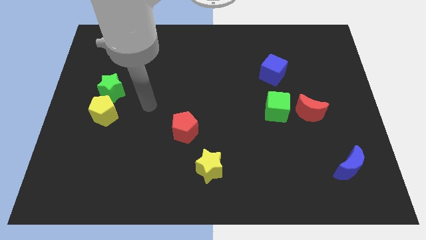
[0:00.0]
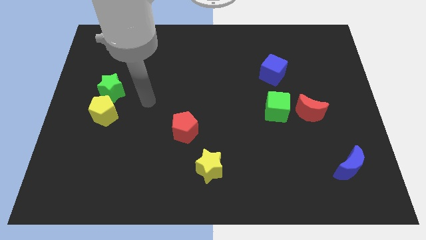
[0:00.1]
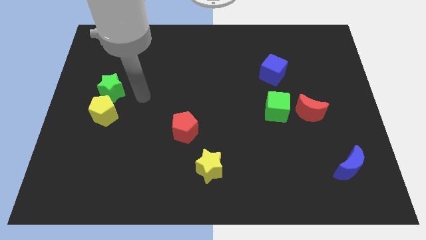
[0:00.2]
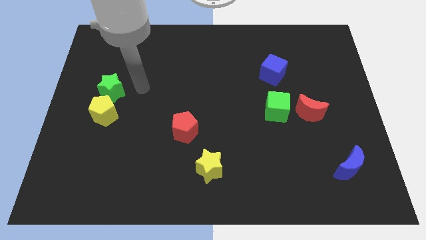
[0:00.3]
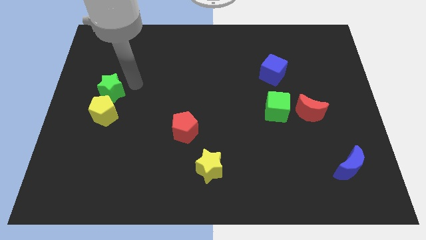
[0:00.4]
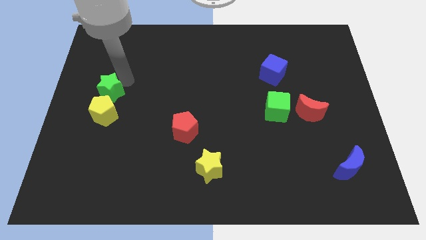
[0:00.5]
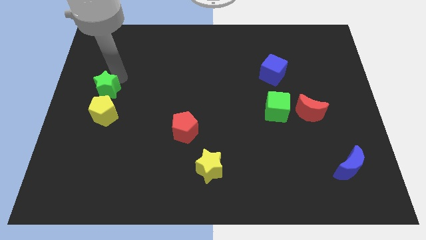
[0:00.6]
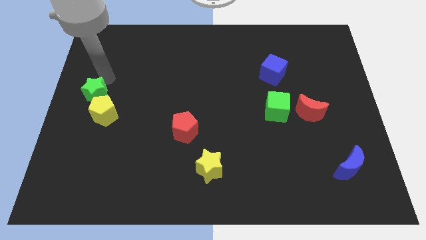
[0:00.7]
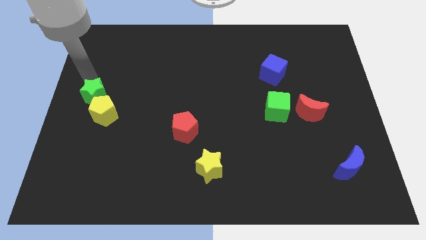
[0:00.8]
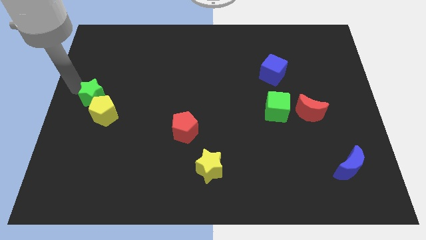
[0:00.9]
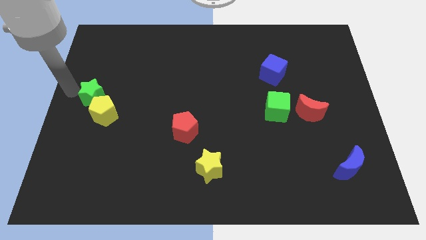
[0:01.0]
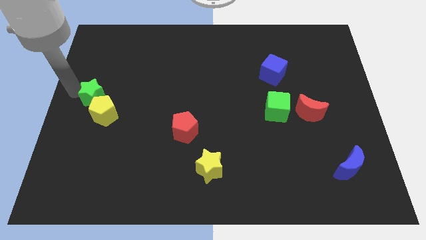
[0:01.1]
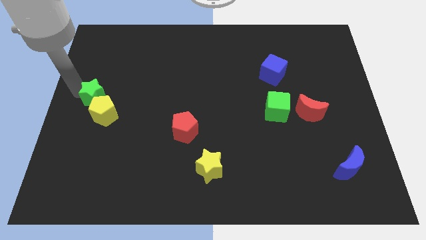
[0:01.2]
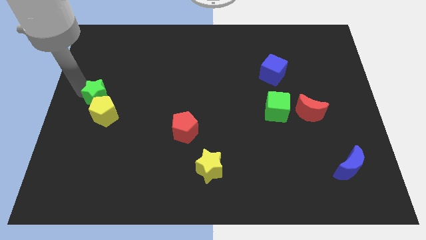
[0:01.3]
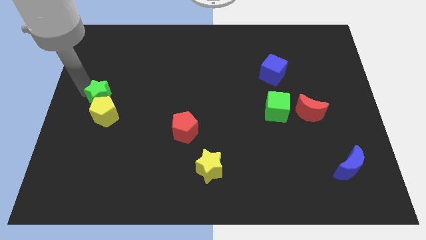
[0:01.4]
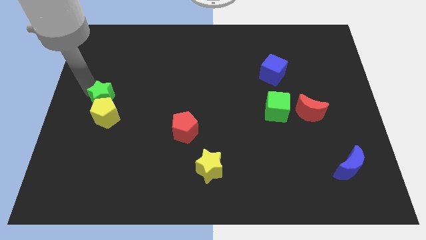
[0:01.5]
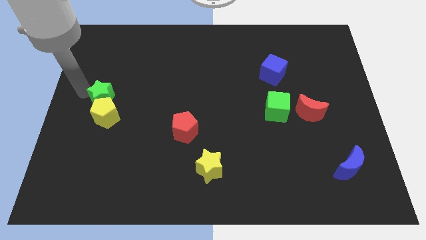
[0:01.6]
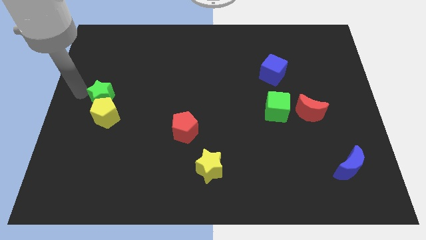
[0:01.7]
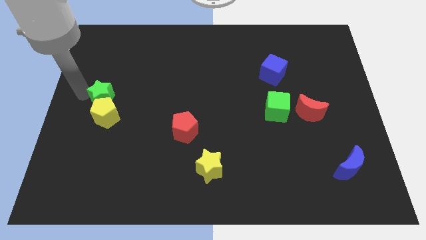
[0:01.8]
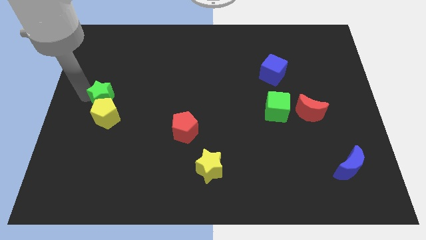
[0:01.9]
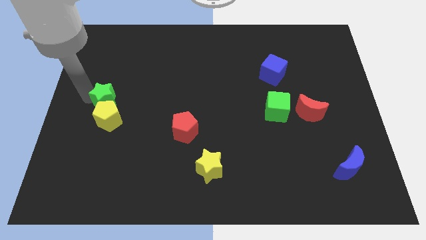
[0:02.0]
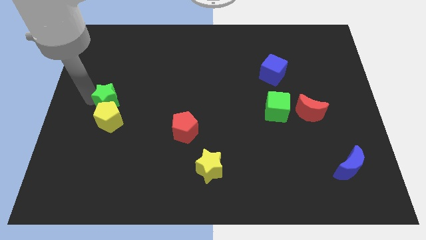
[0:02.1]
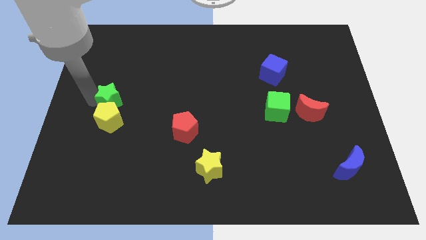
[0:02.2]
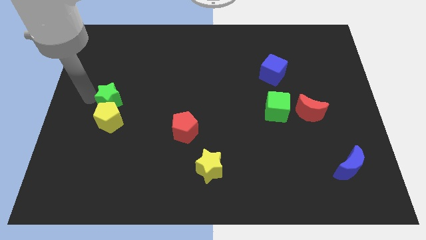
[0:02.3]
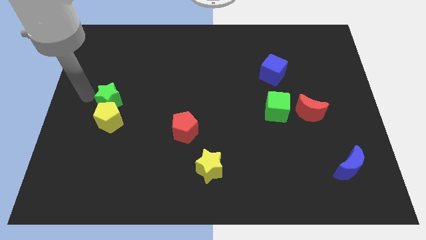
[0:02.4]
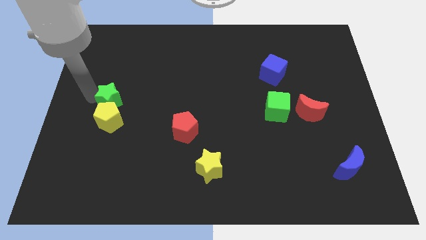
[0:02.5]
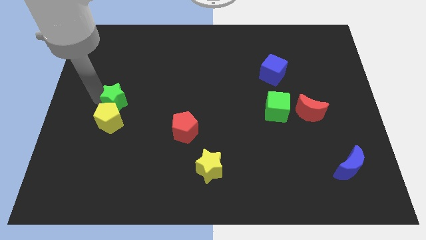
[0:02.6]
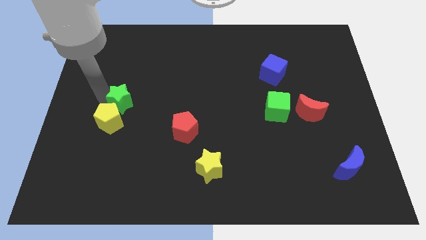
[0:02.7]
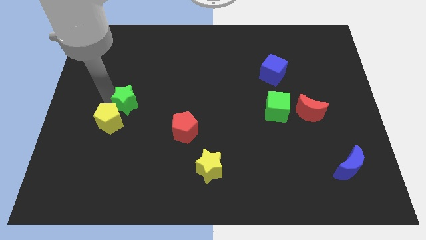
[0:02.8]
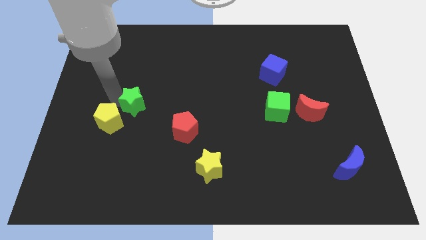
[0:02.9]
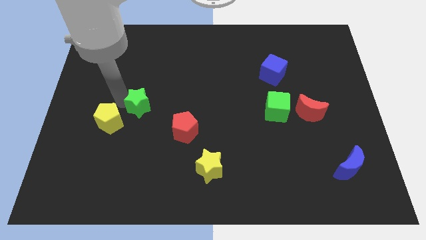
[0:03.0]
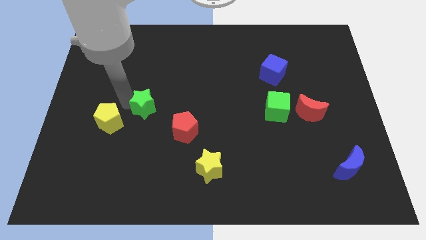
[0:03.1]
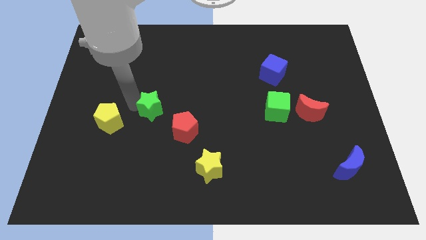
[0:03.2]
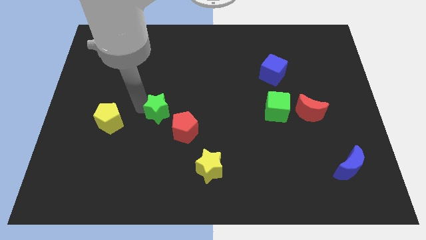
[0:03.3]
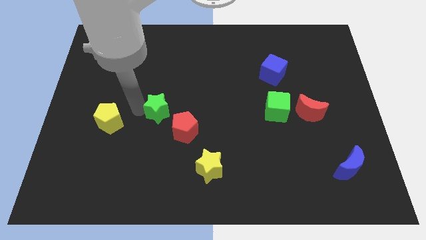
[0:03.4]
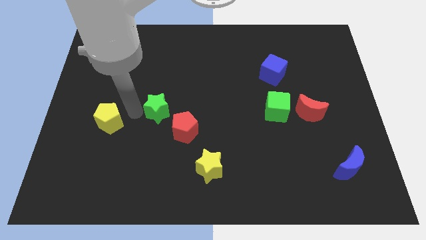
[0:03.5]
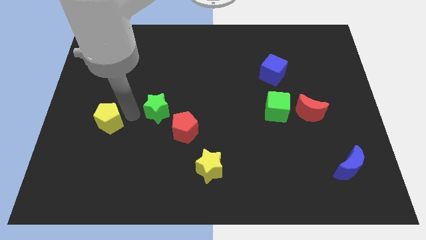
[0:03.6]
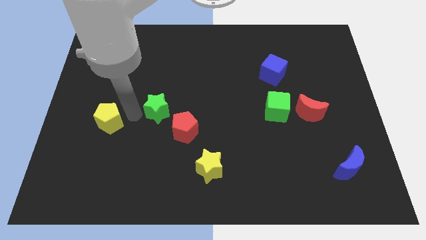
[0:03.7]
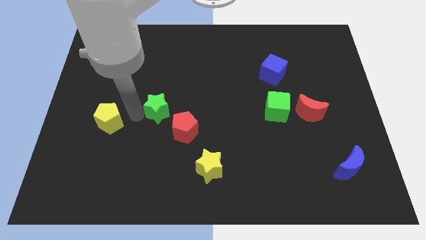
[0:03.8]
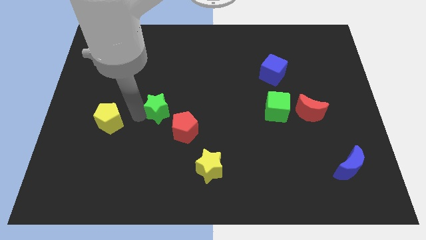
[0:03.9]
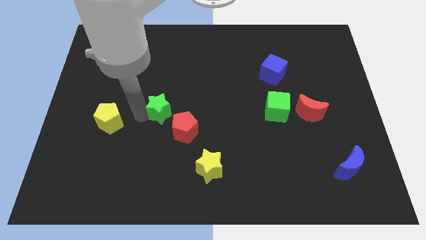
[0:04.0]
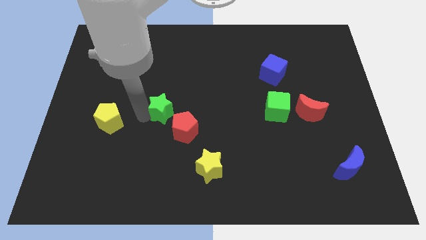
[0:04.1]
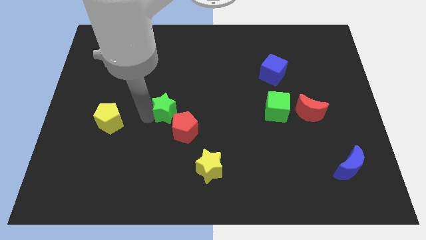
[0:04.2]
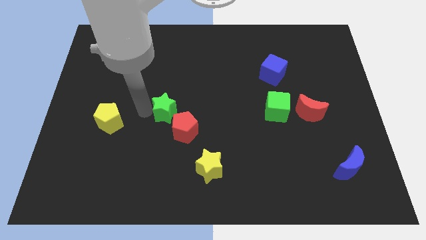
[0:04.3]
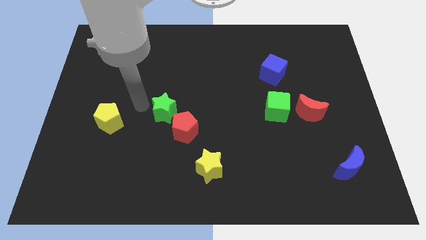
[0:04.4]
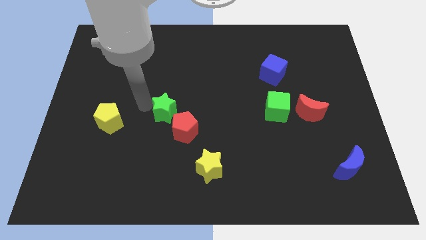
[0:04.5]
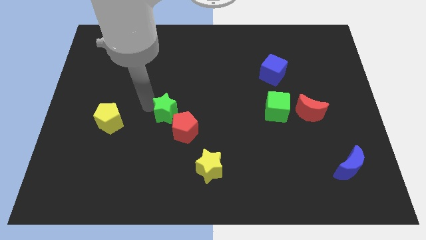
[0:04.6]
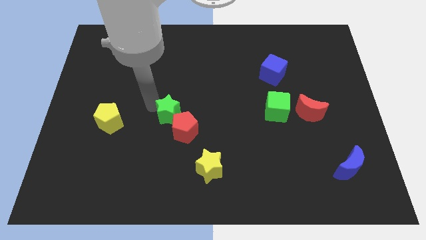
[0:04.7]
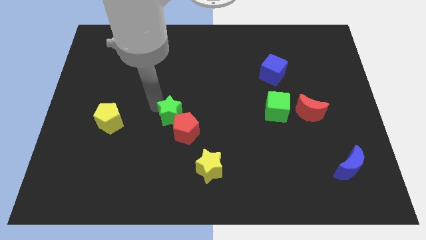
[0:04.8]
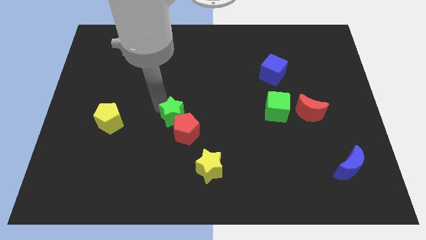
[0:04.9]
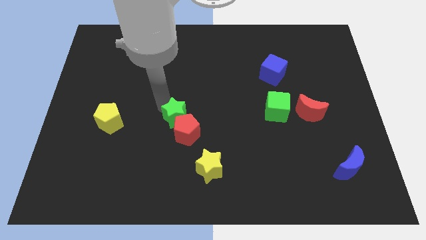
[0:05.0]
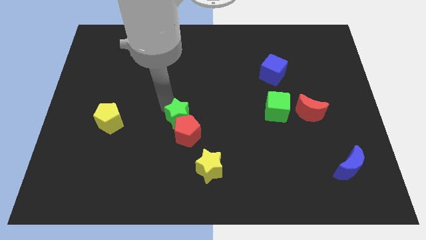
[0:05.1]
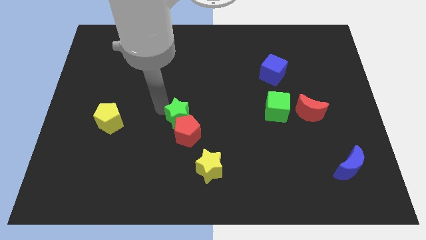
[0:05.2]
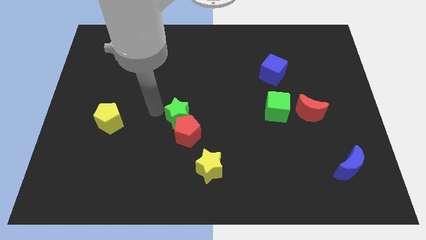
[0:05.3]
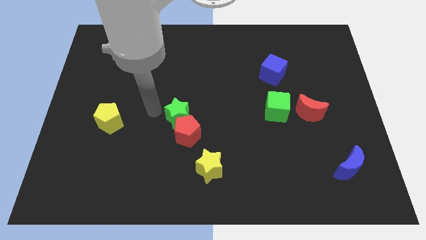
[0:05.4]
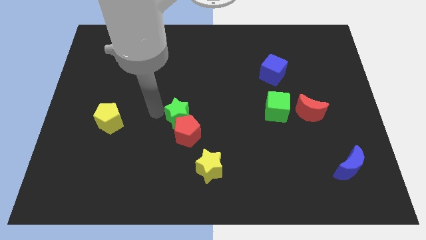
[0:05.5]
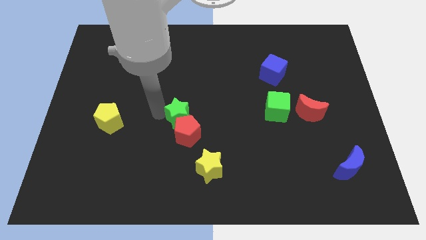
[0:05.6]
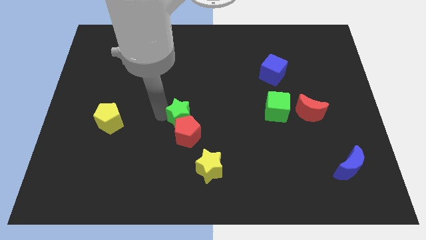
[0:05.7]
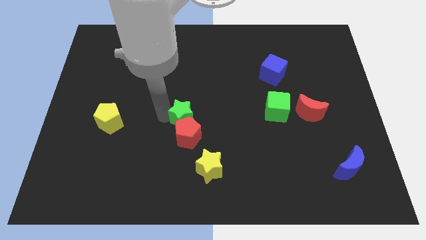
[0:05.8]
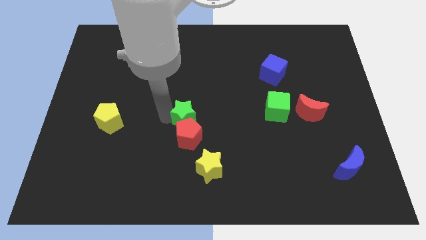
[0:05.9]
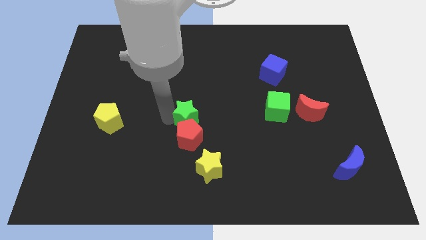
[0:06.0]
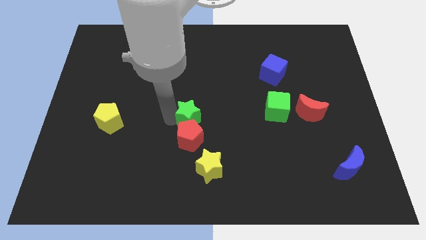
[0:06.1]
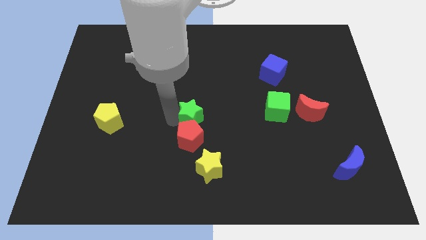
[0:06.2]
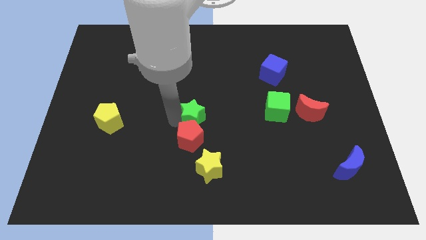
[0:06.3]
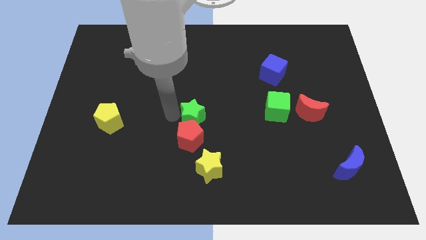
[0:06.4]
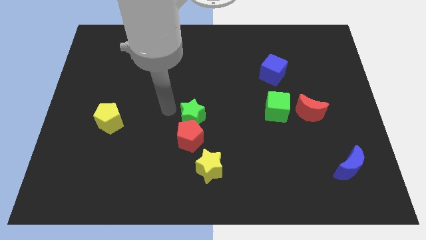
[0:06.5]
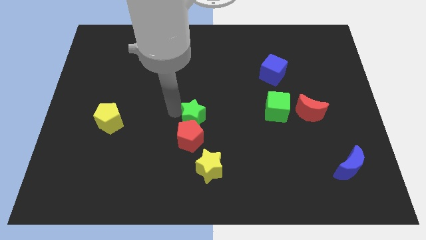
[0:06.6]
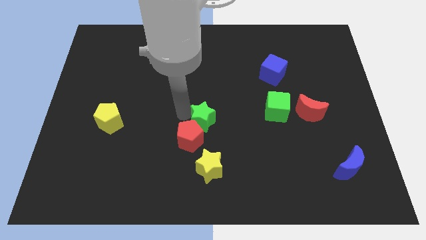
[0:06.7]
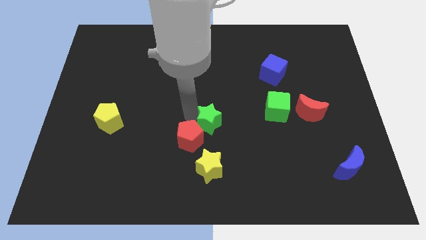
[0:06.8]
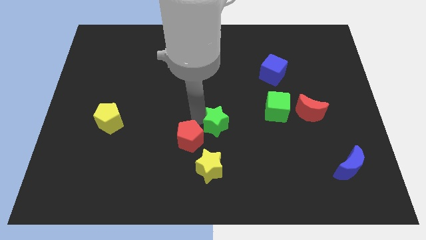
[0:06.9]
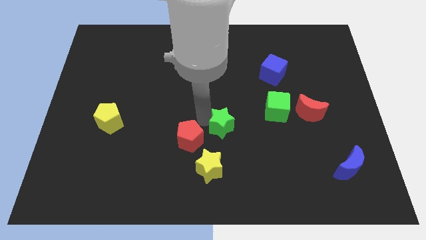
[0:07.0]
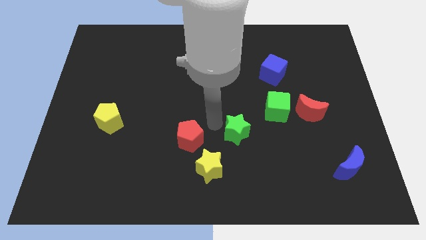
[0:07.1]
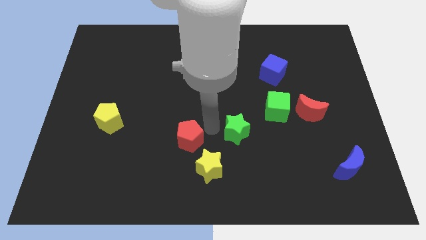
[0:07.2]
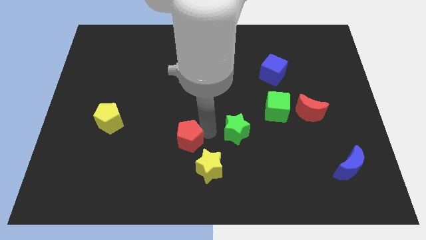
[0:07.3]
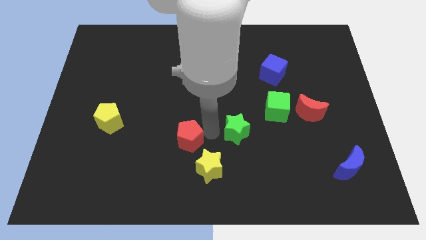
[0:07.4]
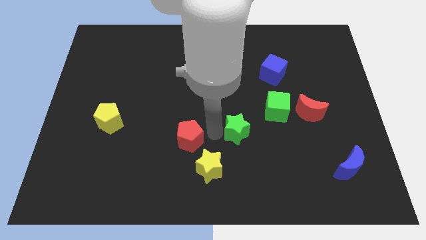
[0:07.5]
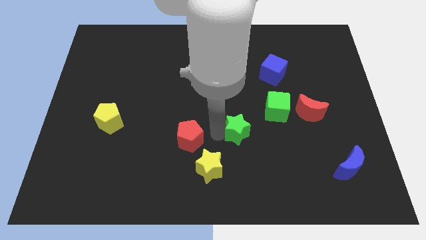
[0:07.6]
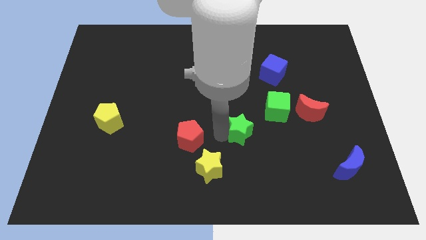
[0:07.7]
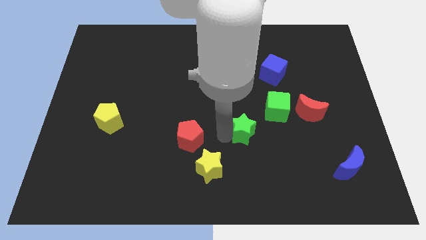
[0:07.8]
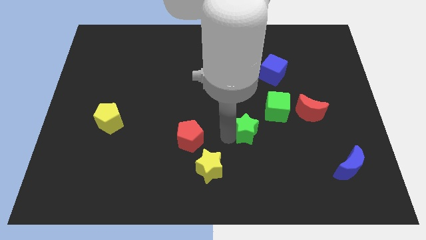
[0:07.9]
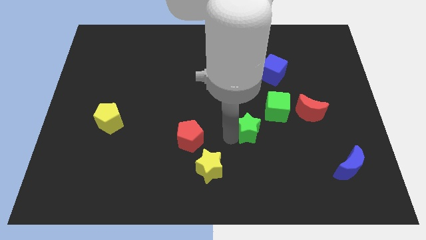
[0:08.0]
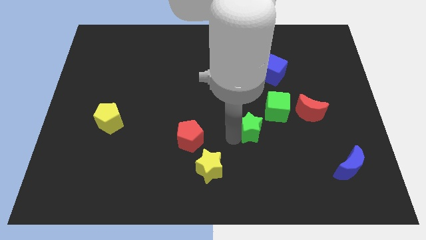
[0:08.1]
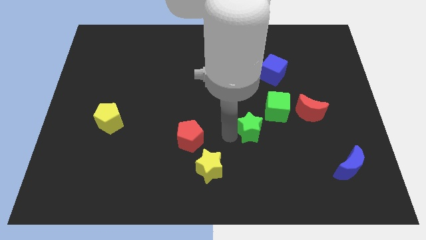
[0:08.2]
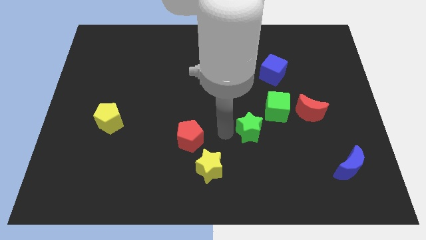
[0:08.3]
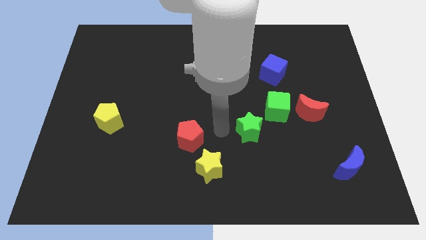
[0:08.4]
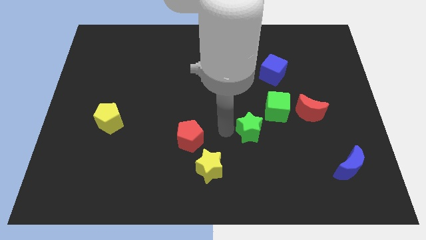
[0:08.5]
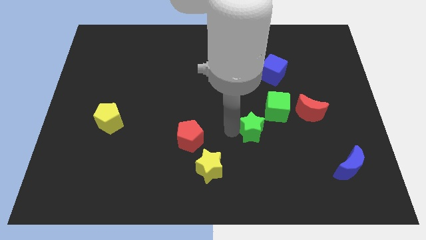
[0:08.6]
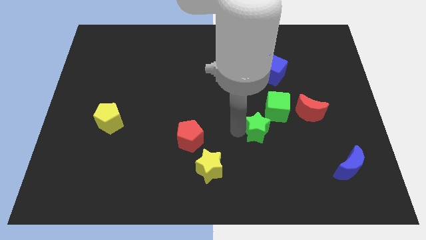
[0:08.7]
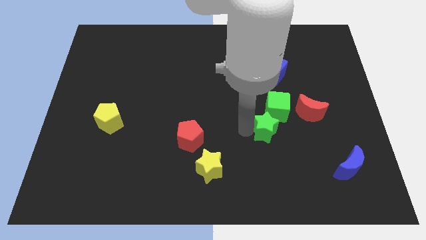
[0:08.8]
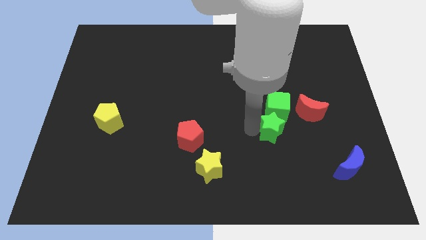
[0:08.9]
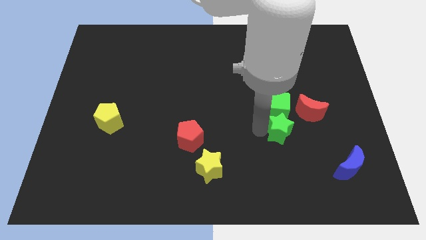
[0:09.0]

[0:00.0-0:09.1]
slide the green star to the bottom right side of the green cube
